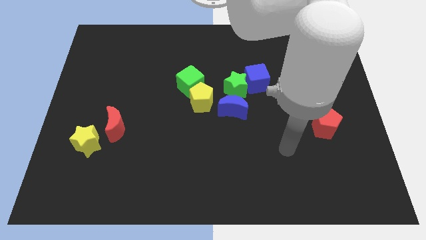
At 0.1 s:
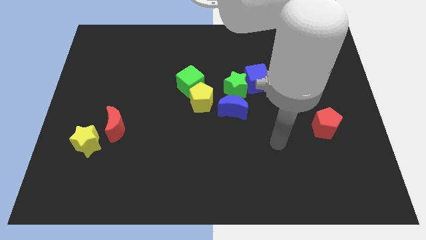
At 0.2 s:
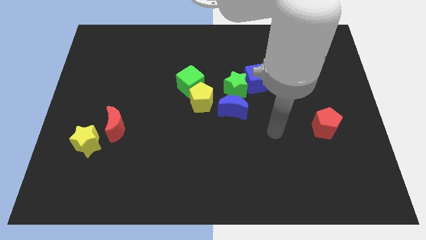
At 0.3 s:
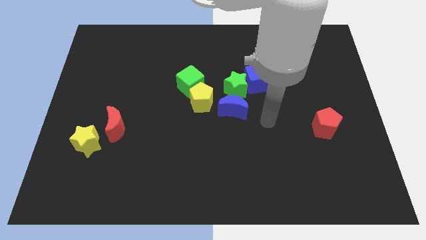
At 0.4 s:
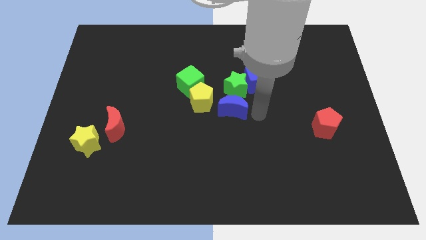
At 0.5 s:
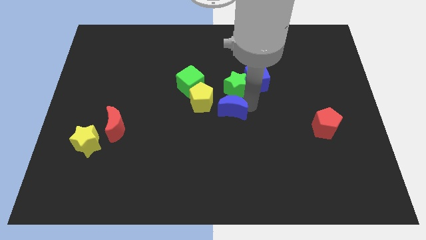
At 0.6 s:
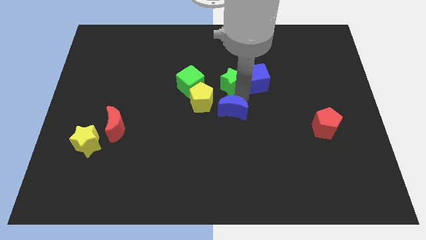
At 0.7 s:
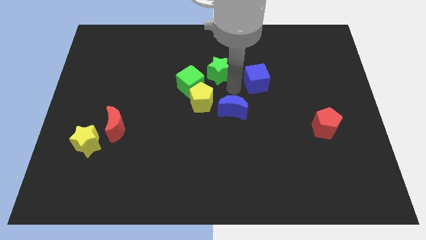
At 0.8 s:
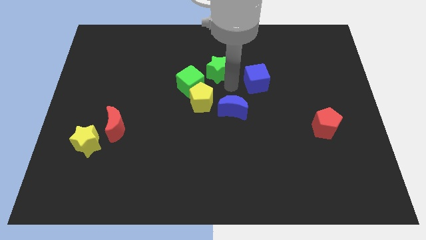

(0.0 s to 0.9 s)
separate the blue cube from the green star

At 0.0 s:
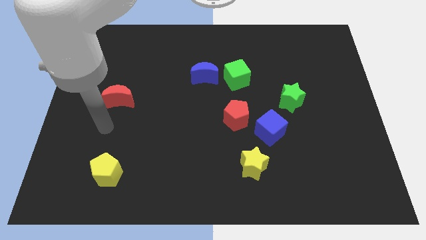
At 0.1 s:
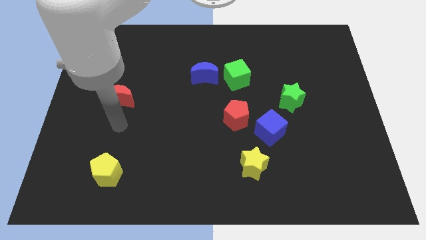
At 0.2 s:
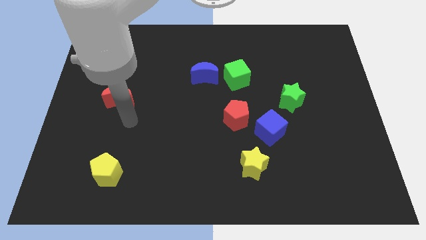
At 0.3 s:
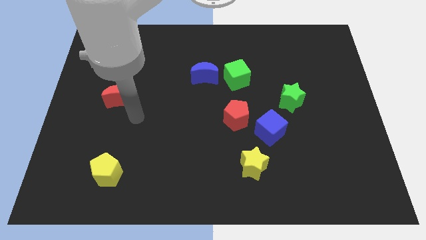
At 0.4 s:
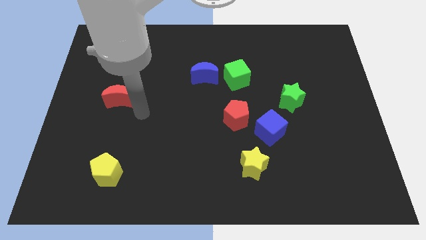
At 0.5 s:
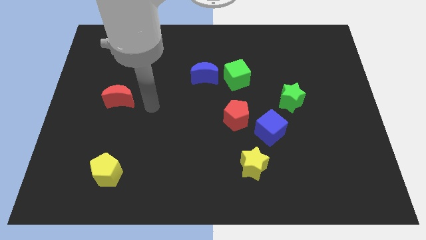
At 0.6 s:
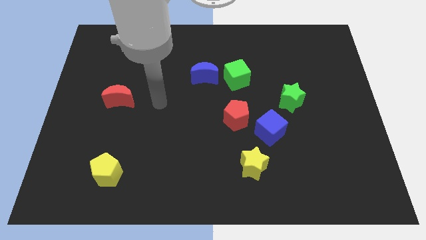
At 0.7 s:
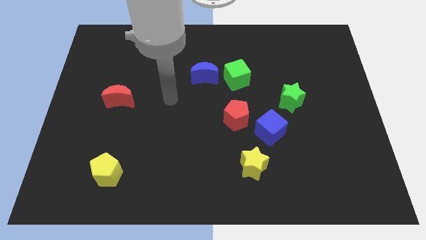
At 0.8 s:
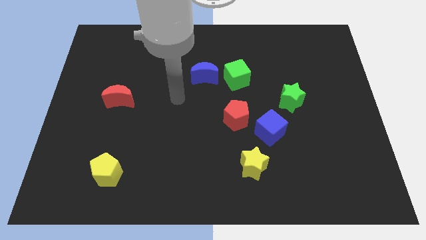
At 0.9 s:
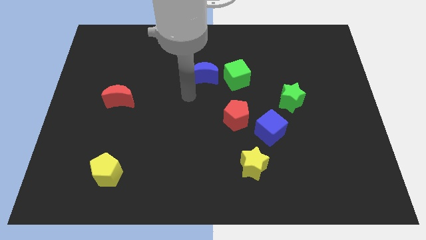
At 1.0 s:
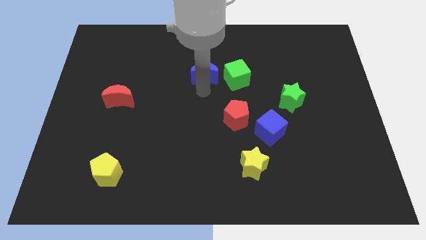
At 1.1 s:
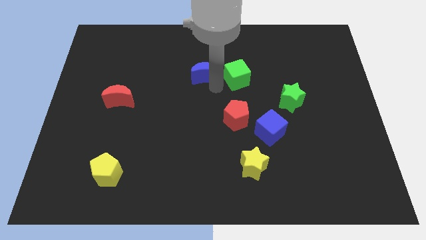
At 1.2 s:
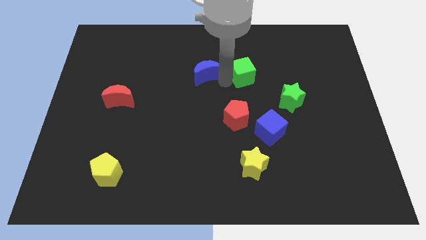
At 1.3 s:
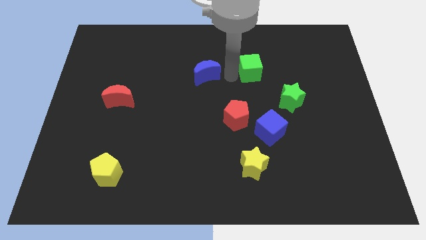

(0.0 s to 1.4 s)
separate the blue moon from the green cube

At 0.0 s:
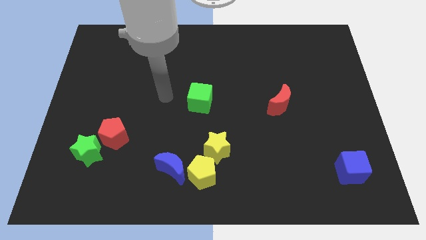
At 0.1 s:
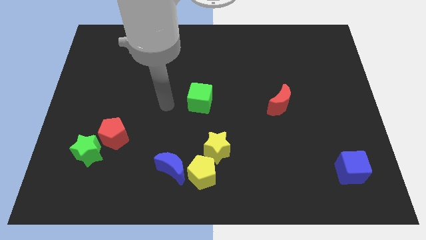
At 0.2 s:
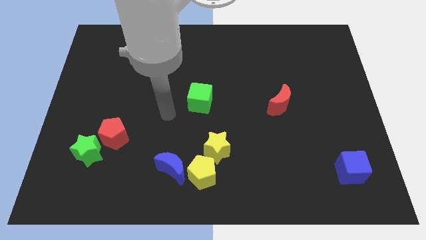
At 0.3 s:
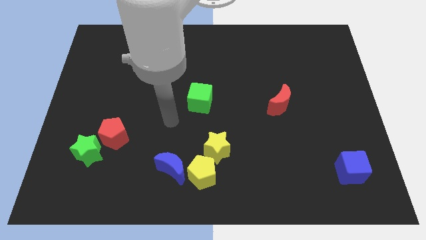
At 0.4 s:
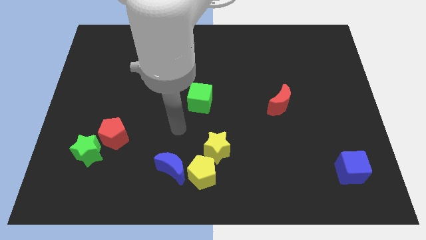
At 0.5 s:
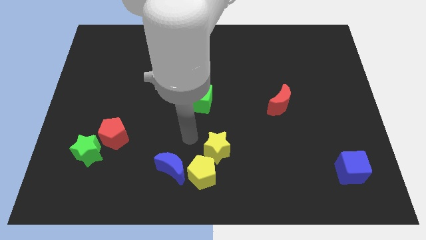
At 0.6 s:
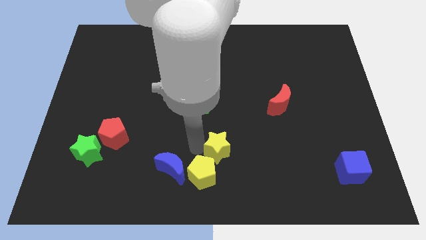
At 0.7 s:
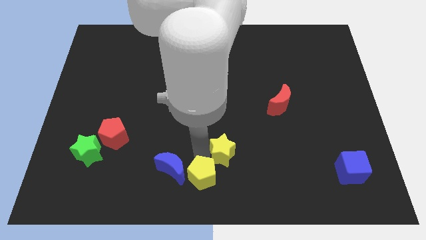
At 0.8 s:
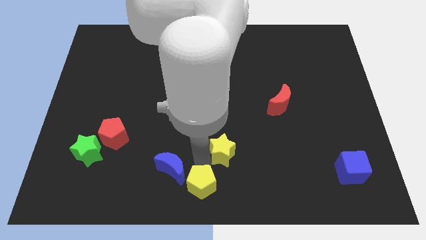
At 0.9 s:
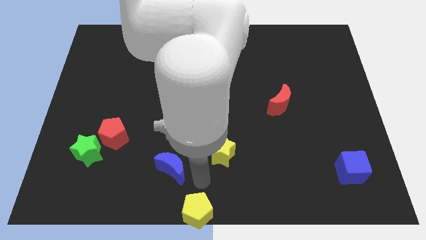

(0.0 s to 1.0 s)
pull the blue moon apart from the yellow pentagon

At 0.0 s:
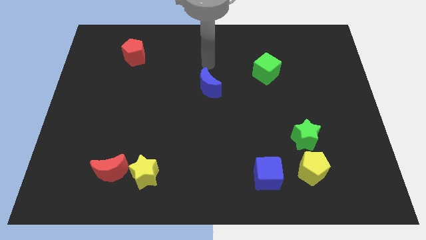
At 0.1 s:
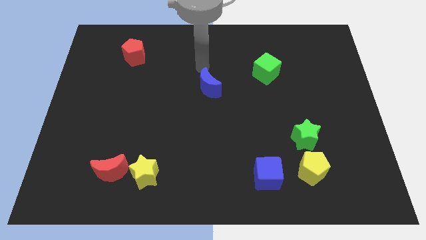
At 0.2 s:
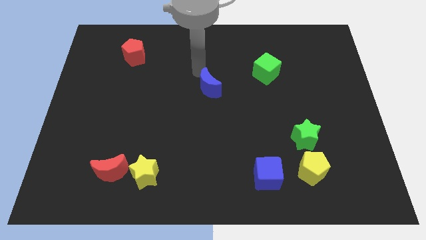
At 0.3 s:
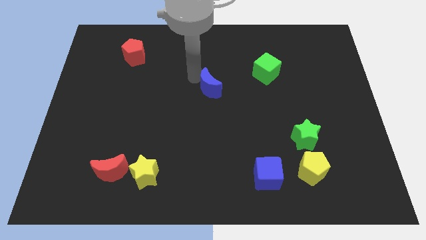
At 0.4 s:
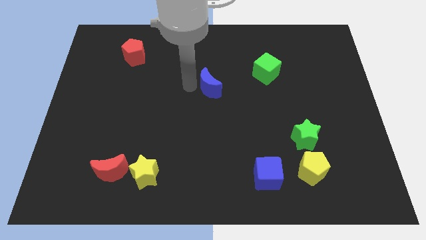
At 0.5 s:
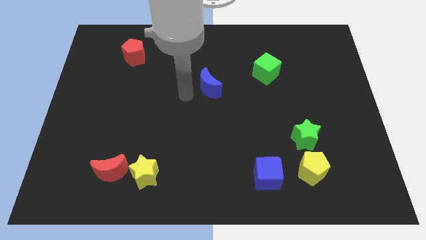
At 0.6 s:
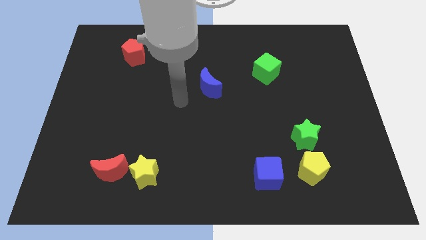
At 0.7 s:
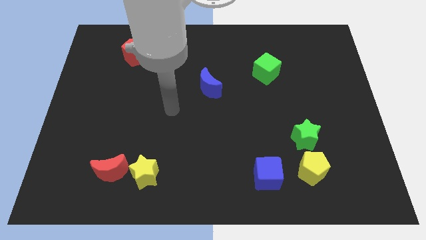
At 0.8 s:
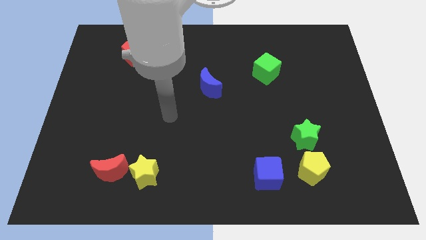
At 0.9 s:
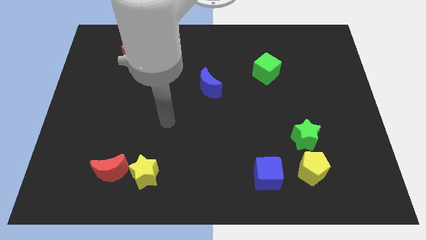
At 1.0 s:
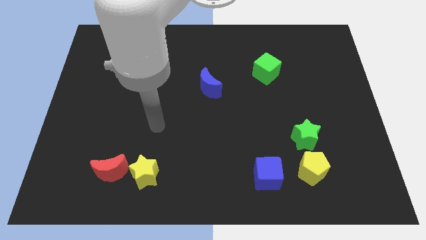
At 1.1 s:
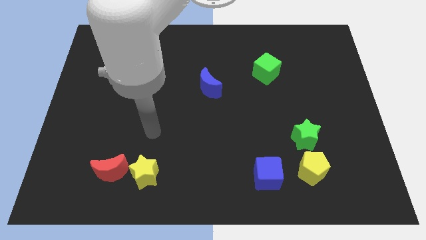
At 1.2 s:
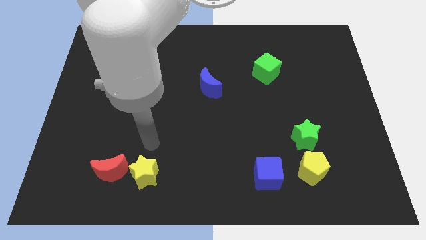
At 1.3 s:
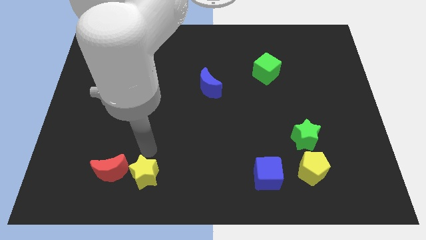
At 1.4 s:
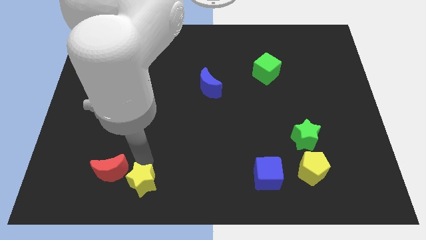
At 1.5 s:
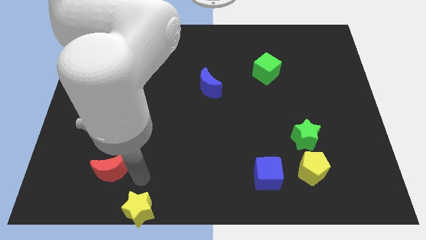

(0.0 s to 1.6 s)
pull the red moon apart from the yellow star

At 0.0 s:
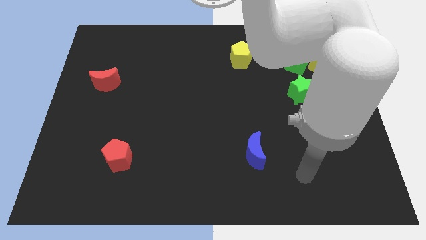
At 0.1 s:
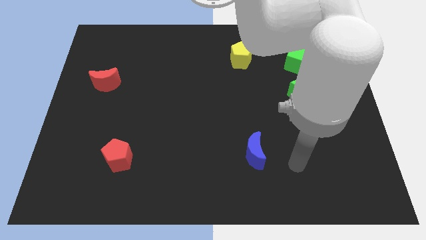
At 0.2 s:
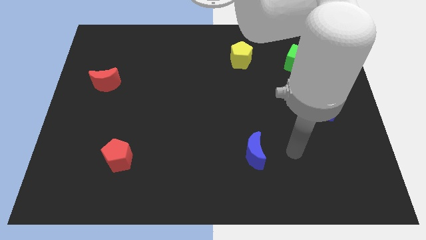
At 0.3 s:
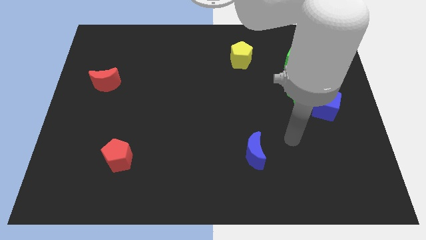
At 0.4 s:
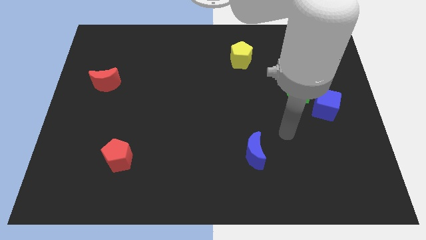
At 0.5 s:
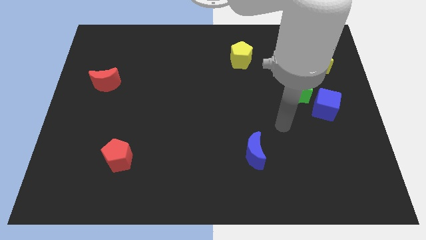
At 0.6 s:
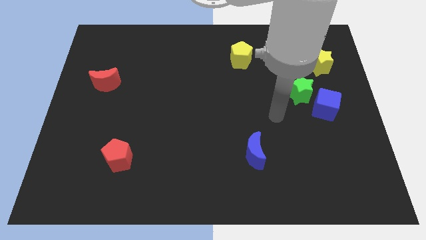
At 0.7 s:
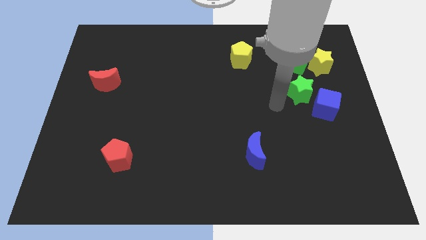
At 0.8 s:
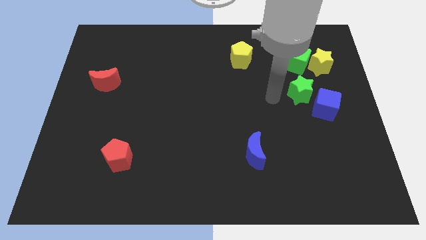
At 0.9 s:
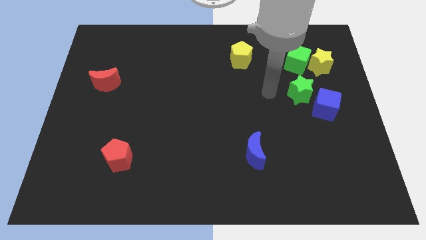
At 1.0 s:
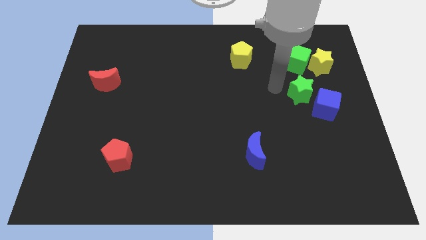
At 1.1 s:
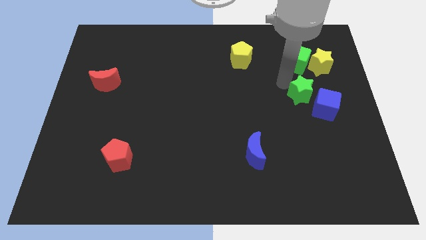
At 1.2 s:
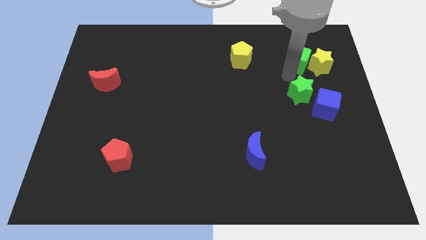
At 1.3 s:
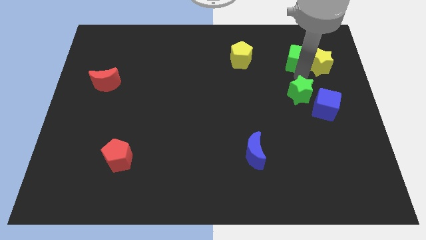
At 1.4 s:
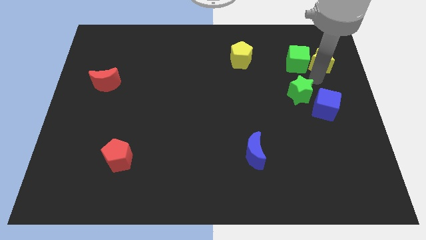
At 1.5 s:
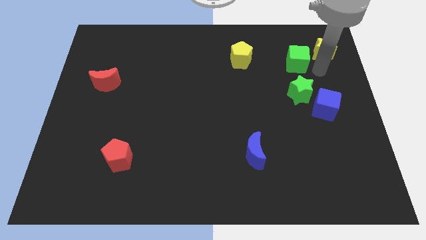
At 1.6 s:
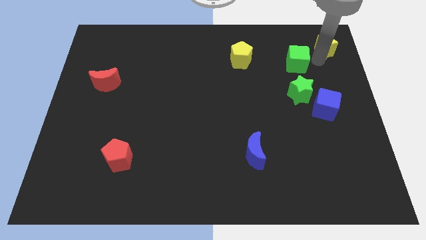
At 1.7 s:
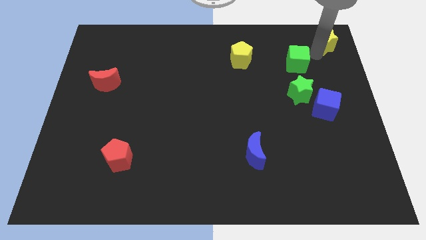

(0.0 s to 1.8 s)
separate the green cube from the yellow star

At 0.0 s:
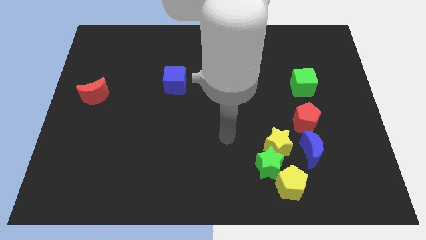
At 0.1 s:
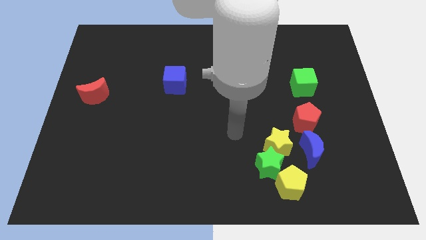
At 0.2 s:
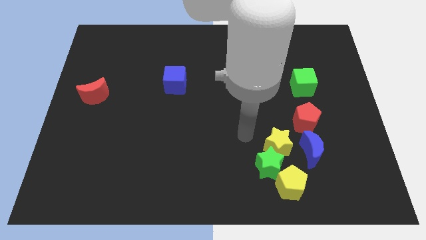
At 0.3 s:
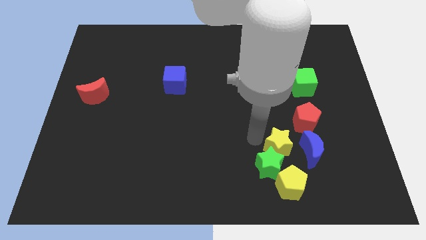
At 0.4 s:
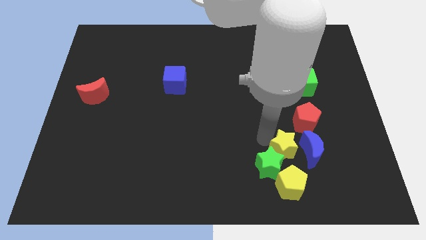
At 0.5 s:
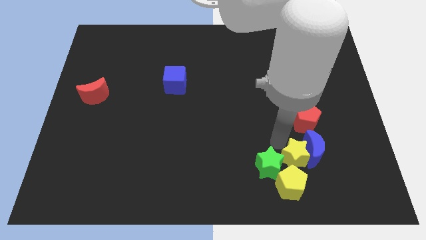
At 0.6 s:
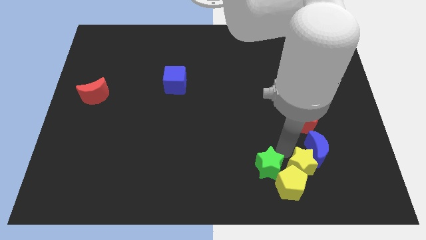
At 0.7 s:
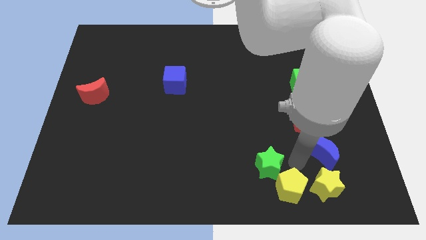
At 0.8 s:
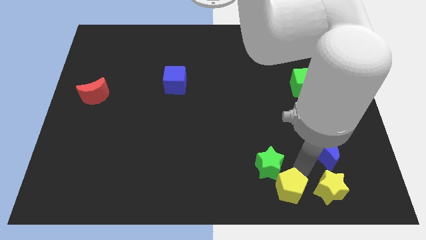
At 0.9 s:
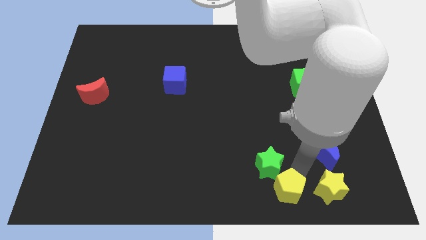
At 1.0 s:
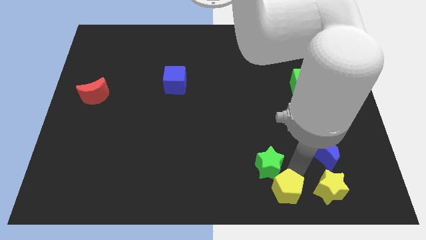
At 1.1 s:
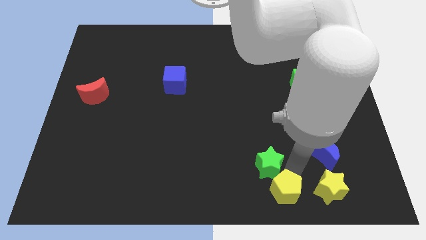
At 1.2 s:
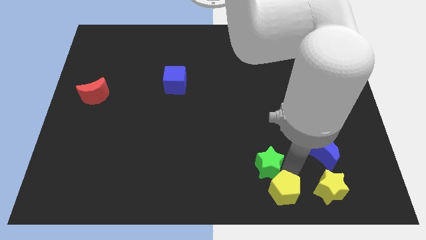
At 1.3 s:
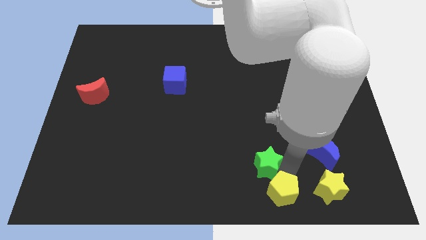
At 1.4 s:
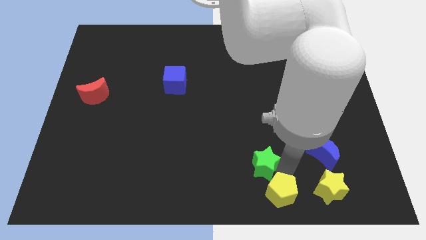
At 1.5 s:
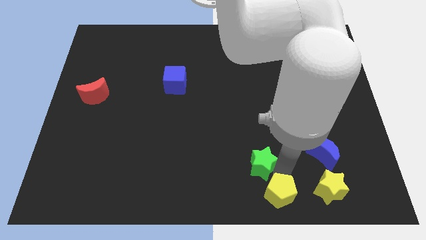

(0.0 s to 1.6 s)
separate the green star from the group

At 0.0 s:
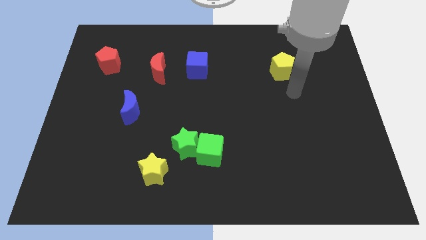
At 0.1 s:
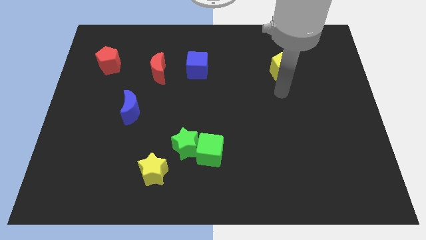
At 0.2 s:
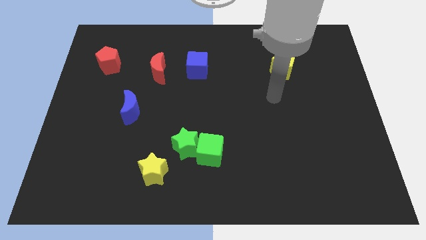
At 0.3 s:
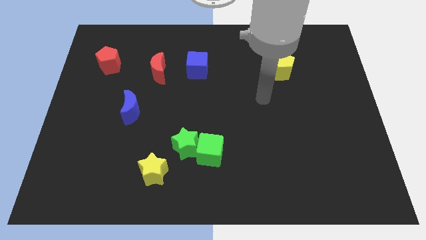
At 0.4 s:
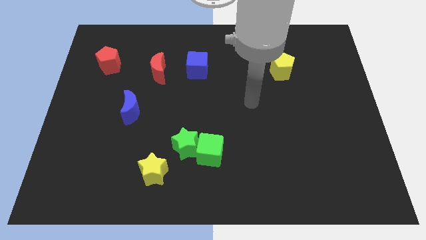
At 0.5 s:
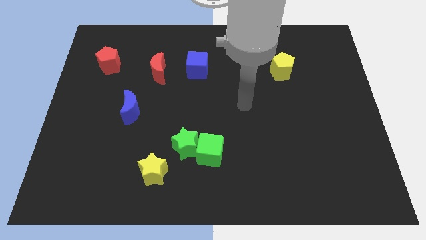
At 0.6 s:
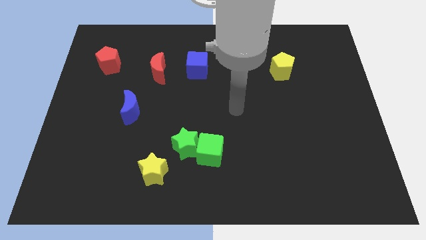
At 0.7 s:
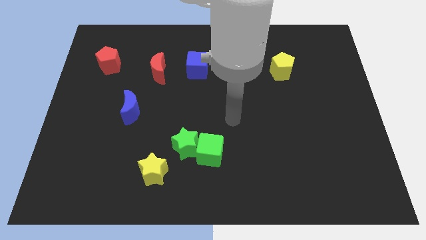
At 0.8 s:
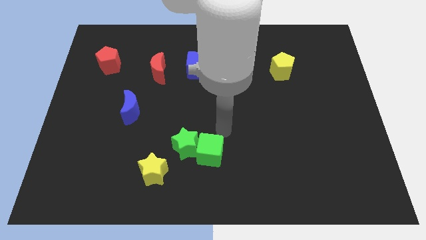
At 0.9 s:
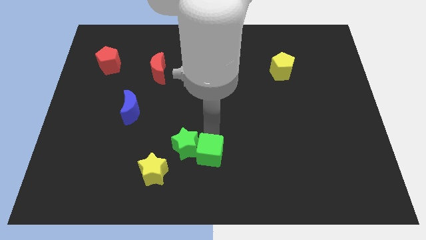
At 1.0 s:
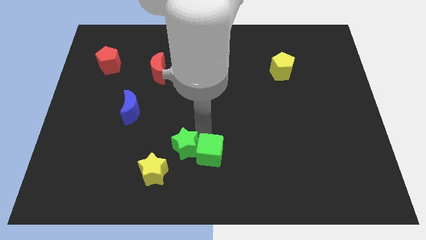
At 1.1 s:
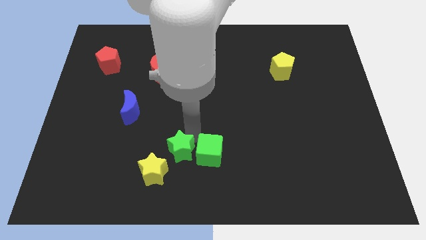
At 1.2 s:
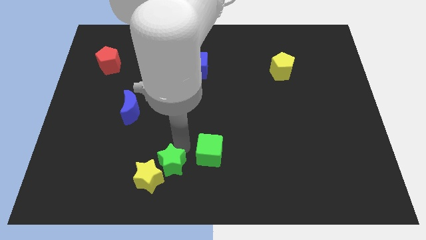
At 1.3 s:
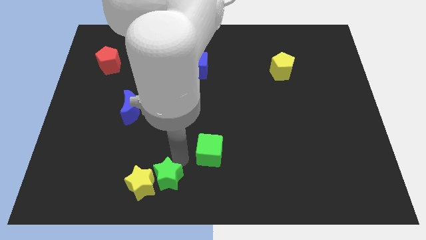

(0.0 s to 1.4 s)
separate the green cube from the green star
